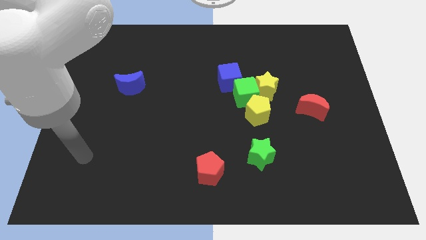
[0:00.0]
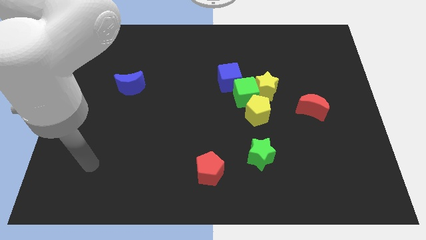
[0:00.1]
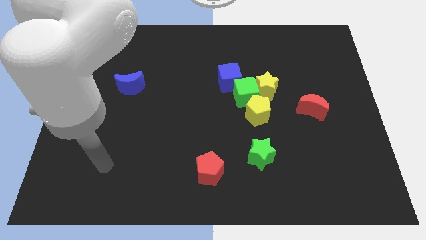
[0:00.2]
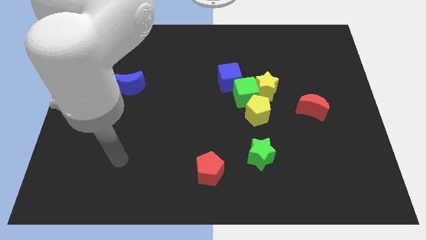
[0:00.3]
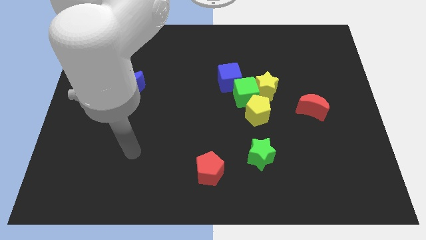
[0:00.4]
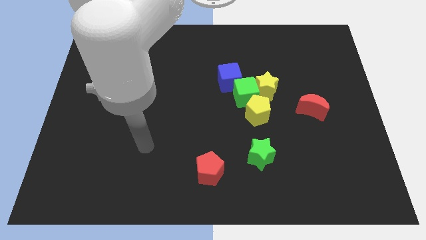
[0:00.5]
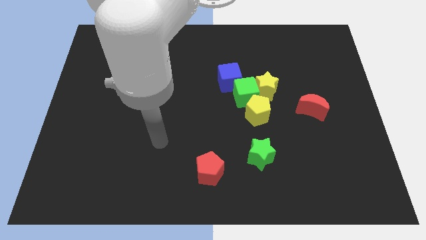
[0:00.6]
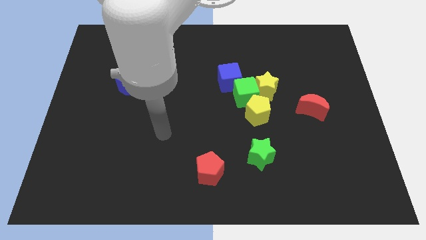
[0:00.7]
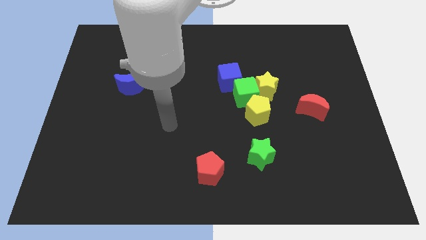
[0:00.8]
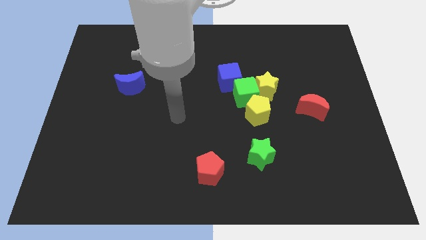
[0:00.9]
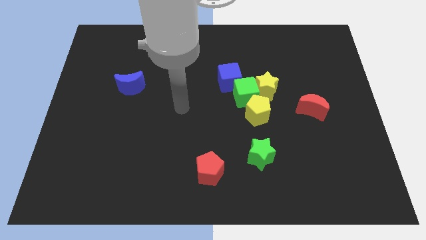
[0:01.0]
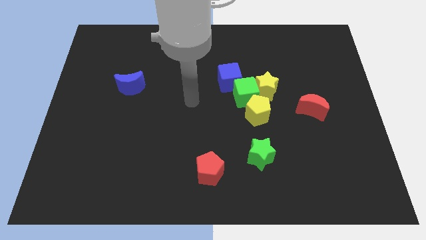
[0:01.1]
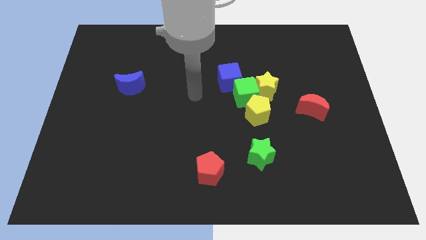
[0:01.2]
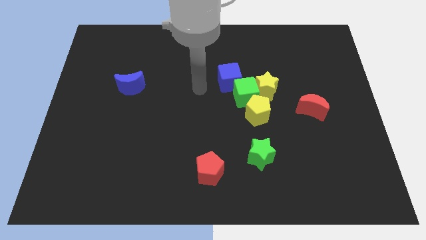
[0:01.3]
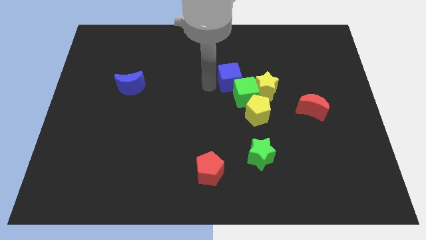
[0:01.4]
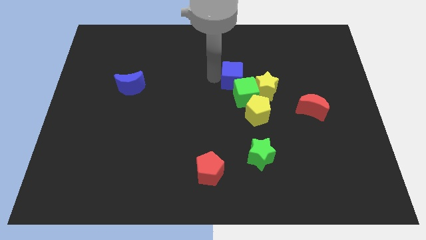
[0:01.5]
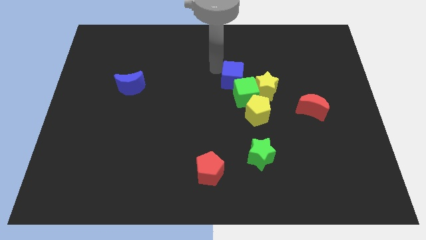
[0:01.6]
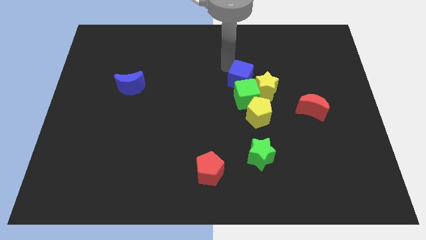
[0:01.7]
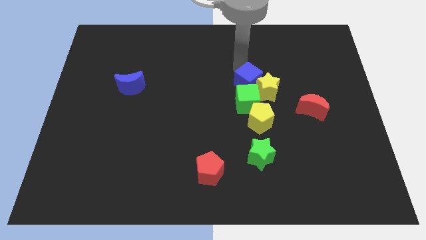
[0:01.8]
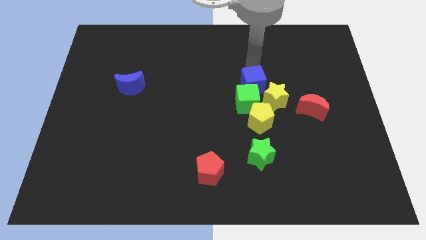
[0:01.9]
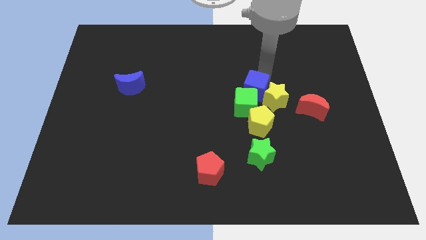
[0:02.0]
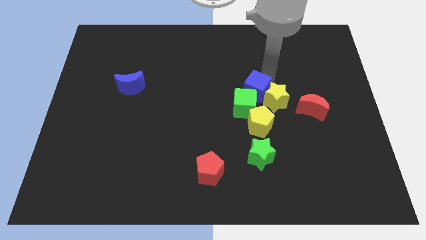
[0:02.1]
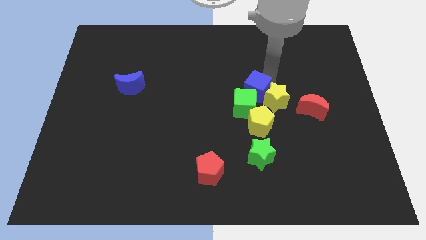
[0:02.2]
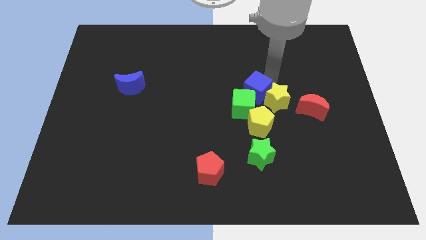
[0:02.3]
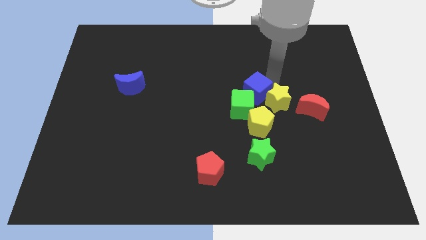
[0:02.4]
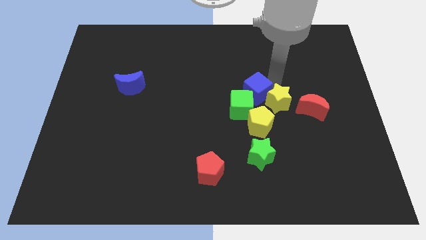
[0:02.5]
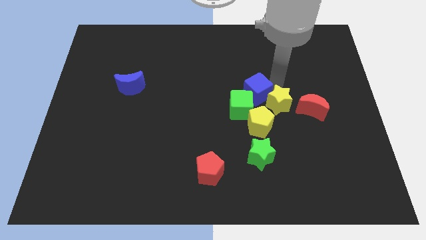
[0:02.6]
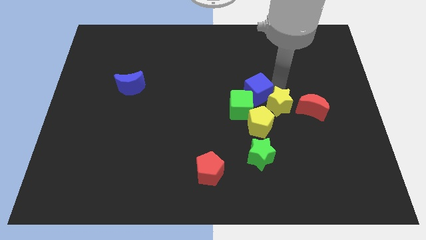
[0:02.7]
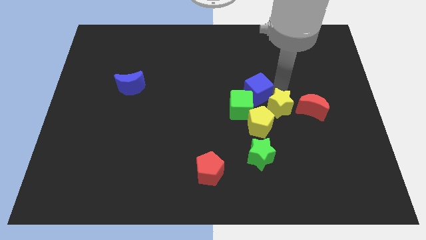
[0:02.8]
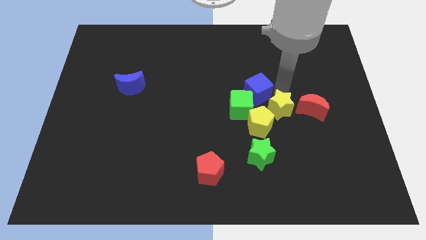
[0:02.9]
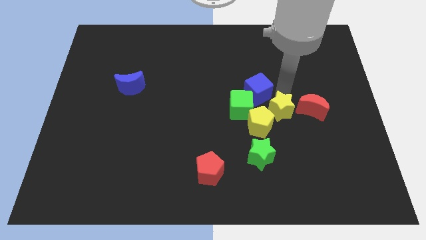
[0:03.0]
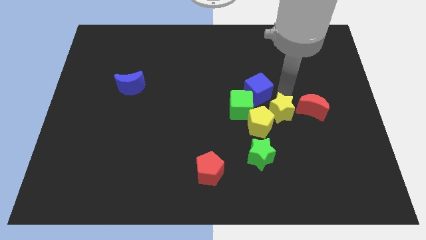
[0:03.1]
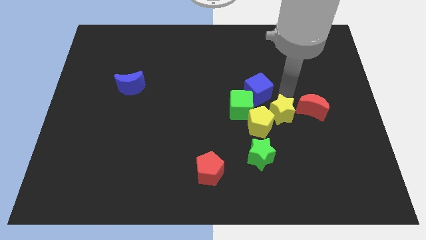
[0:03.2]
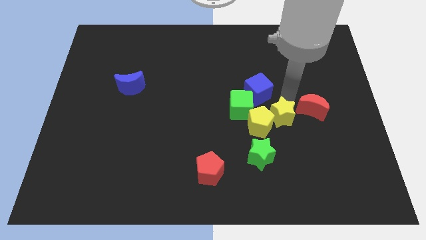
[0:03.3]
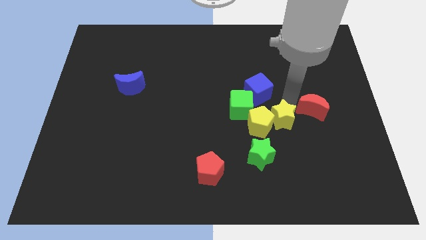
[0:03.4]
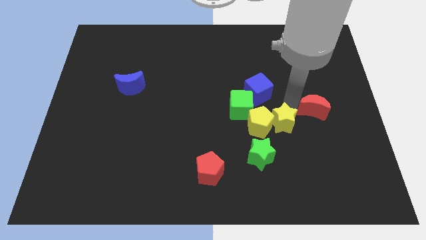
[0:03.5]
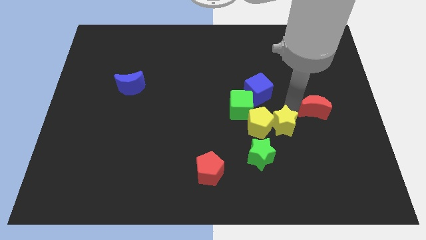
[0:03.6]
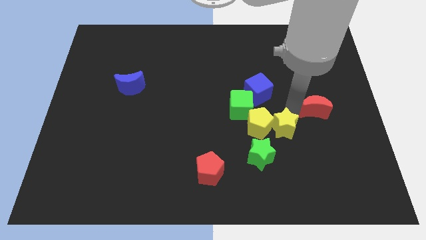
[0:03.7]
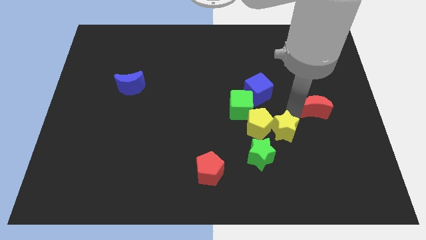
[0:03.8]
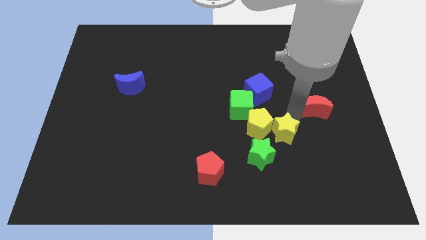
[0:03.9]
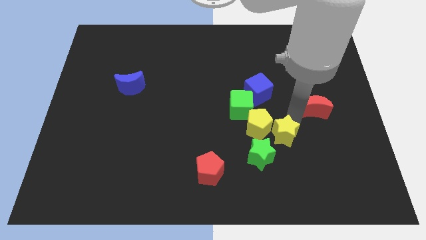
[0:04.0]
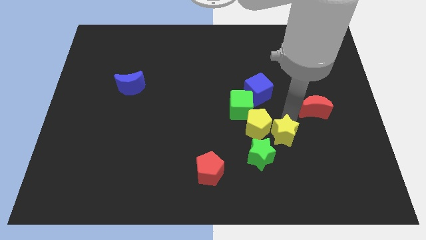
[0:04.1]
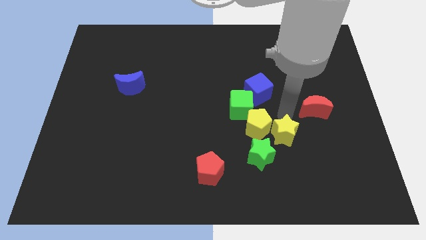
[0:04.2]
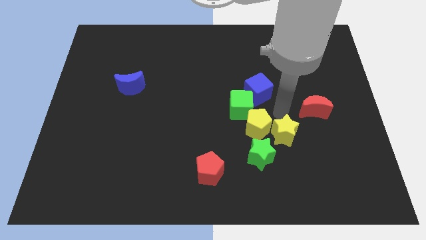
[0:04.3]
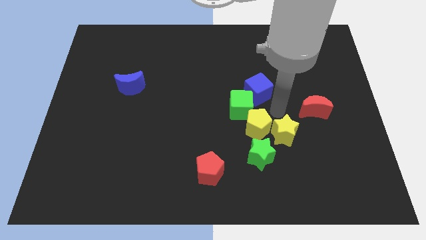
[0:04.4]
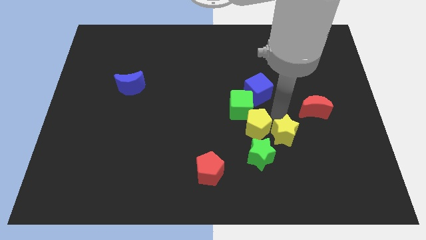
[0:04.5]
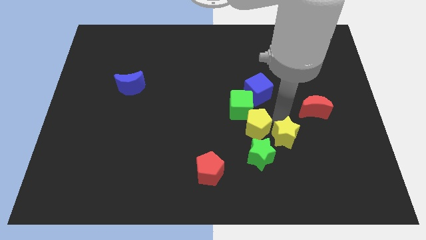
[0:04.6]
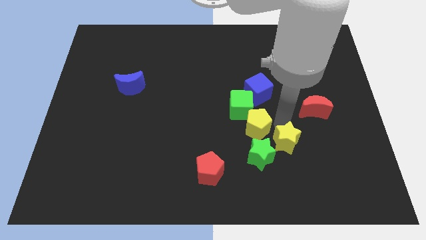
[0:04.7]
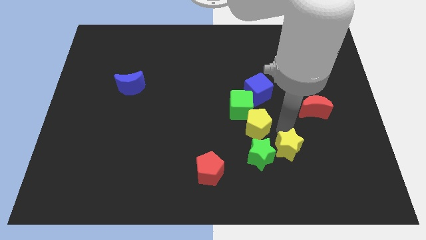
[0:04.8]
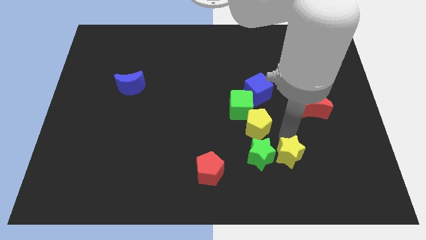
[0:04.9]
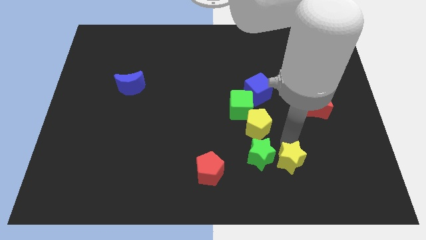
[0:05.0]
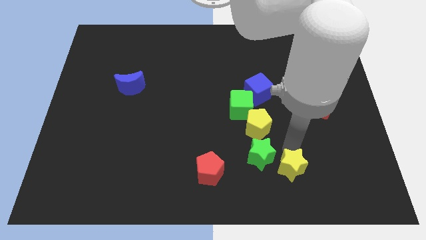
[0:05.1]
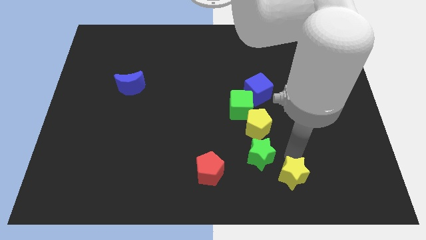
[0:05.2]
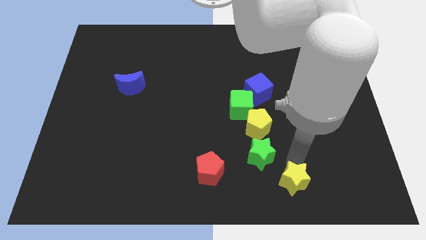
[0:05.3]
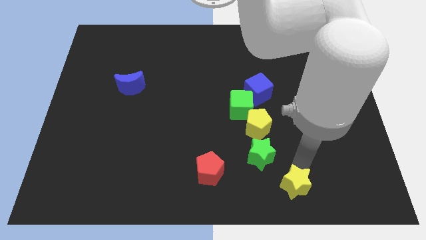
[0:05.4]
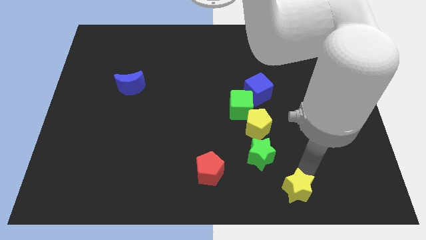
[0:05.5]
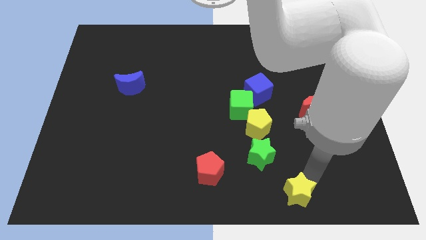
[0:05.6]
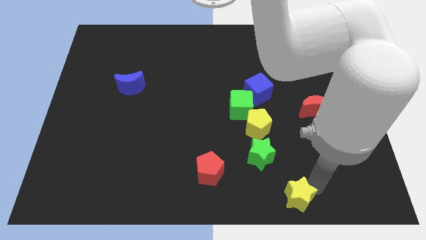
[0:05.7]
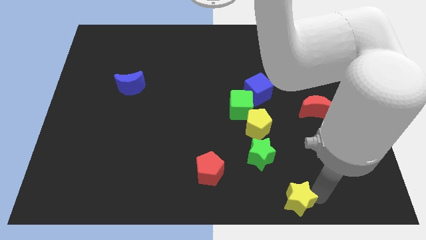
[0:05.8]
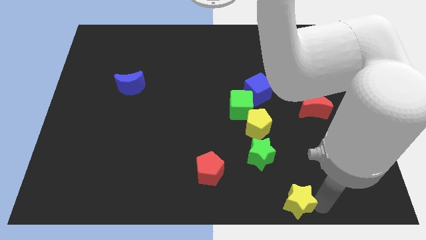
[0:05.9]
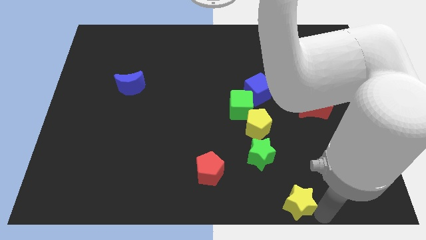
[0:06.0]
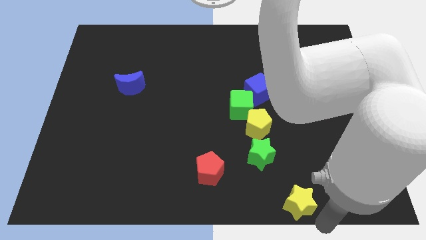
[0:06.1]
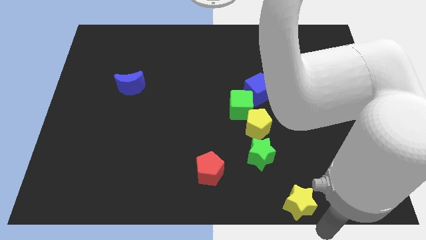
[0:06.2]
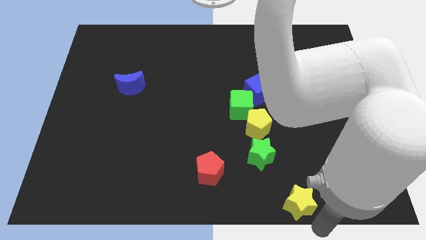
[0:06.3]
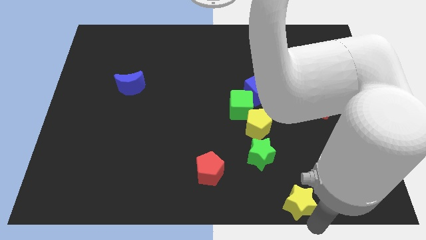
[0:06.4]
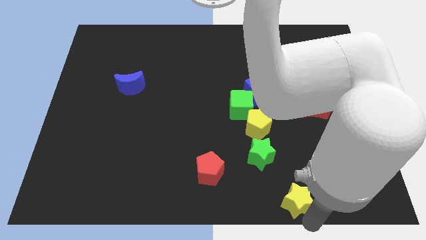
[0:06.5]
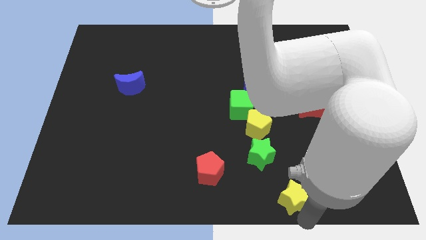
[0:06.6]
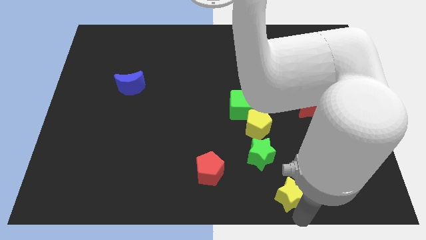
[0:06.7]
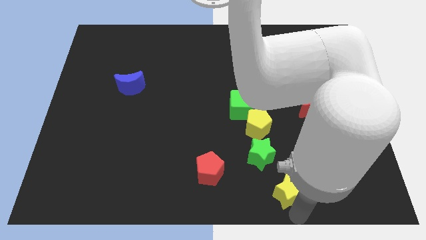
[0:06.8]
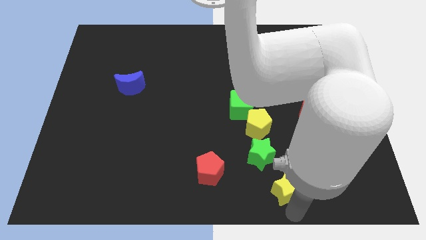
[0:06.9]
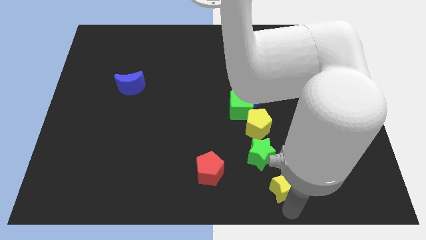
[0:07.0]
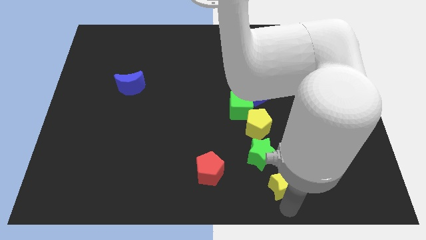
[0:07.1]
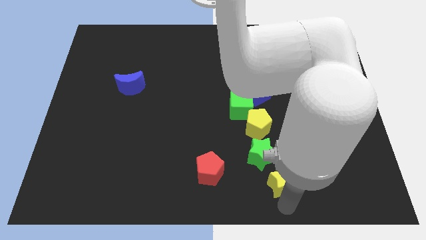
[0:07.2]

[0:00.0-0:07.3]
push the yellow star to the bottom side of the yellow pentagon

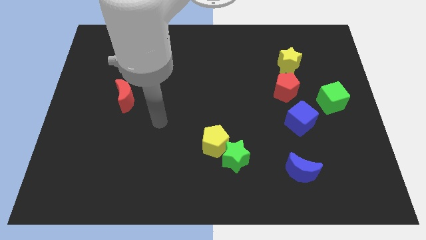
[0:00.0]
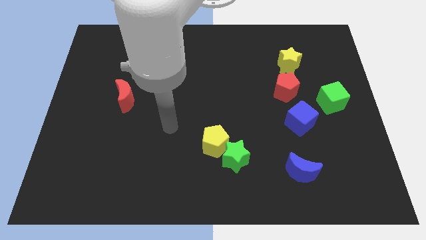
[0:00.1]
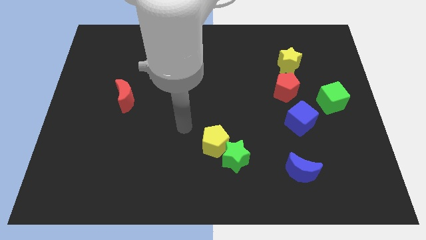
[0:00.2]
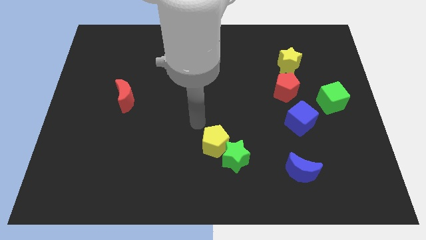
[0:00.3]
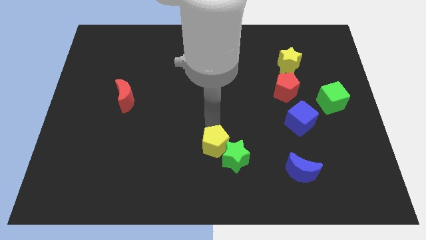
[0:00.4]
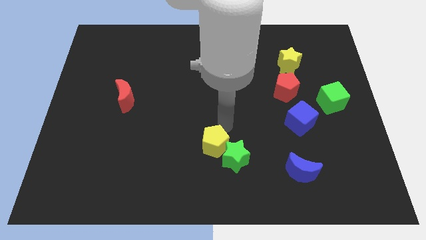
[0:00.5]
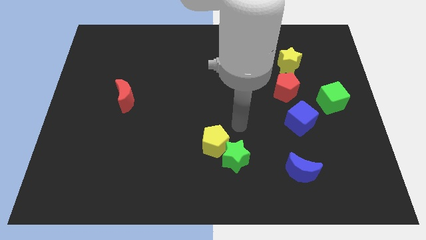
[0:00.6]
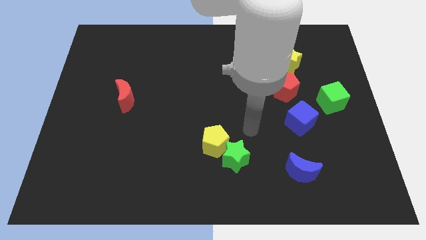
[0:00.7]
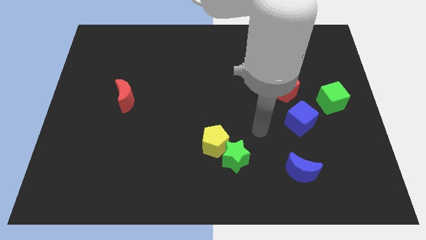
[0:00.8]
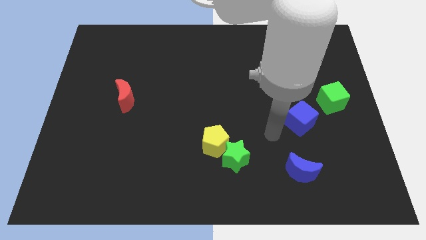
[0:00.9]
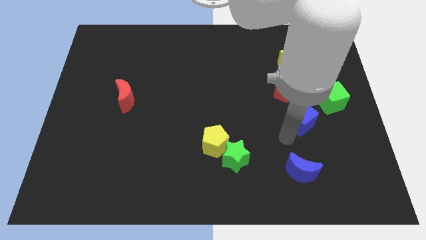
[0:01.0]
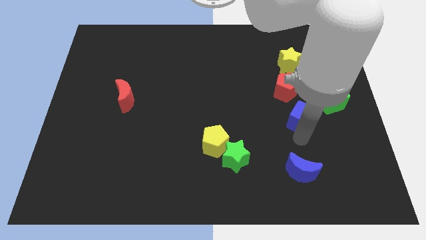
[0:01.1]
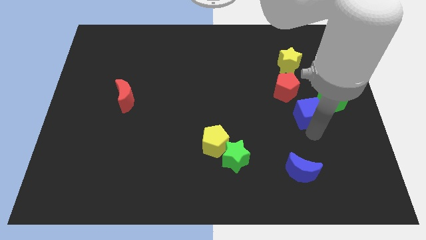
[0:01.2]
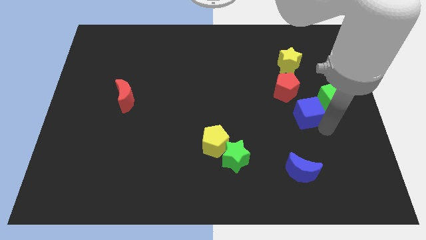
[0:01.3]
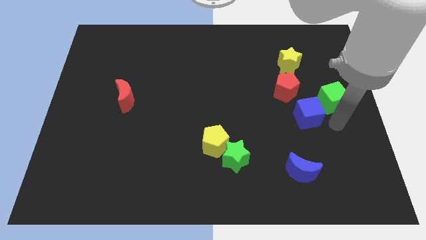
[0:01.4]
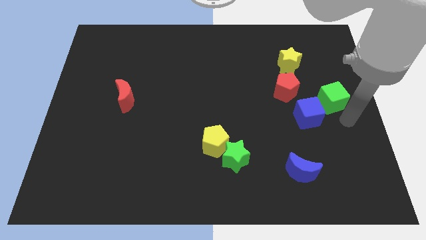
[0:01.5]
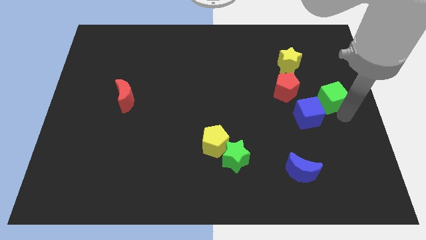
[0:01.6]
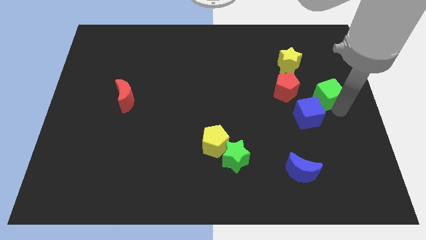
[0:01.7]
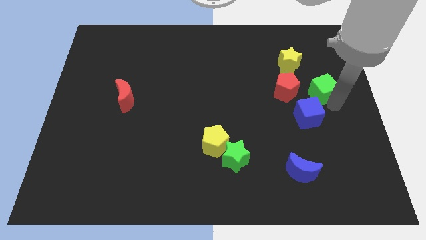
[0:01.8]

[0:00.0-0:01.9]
push the green cube diagonally down and to the right of the yellow star
